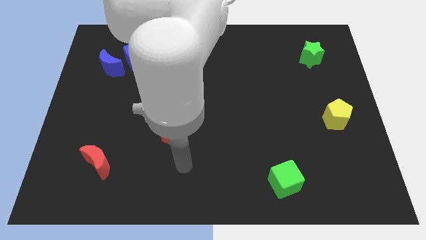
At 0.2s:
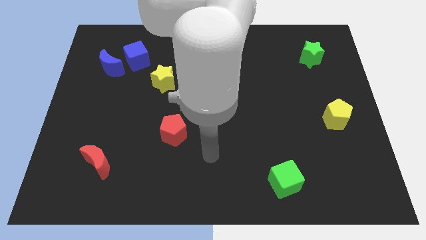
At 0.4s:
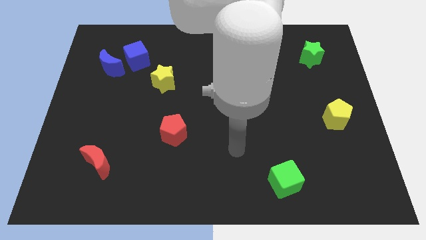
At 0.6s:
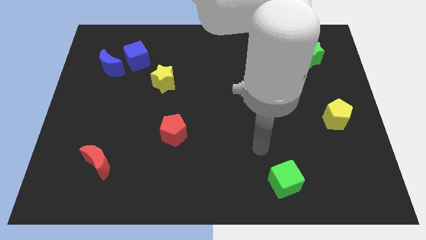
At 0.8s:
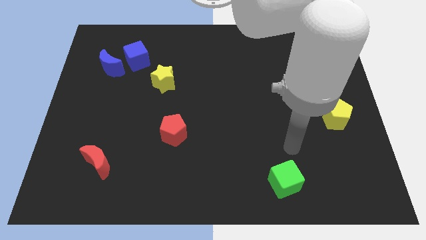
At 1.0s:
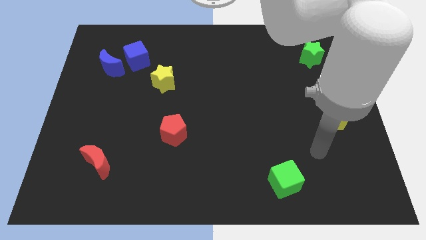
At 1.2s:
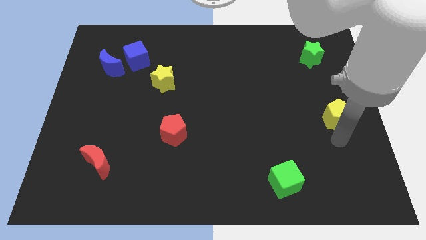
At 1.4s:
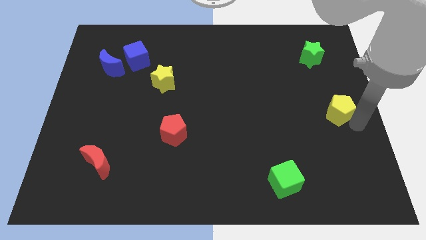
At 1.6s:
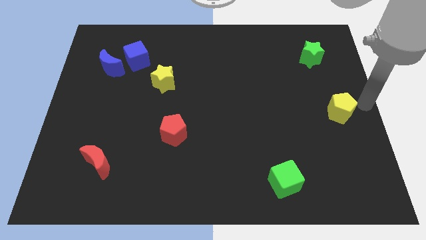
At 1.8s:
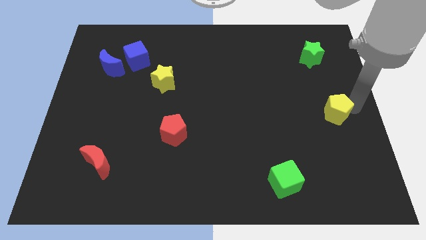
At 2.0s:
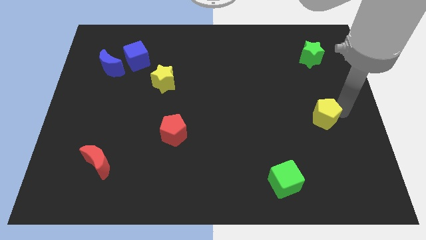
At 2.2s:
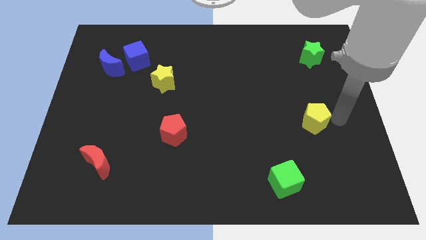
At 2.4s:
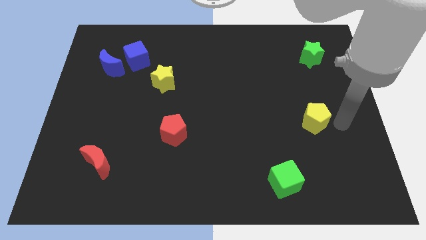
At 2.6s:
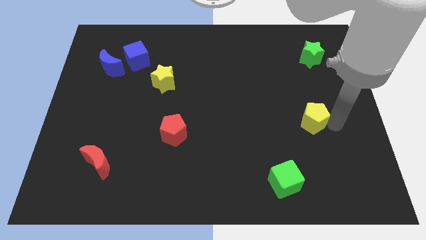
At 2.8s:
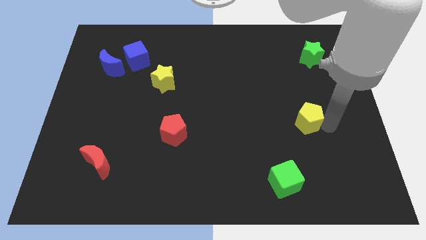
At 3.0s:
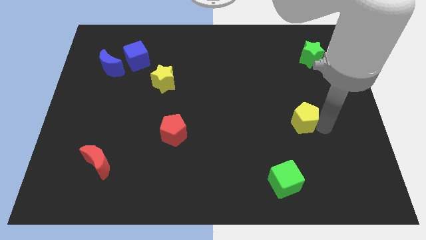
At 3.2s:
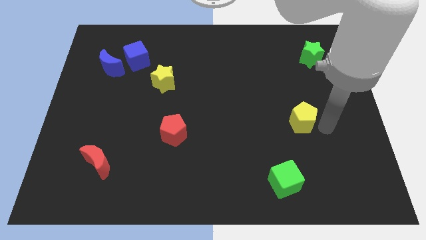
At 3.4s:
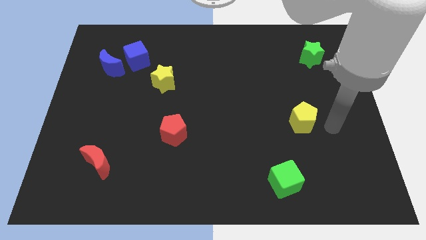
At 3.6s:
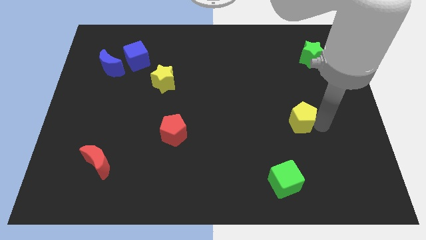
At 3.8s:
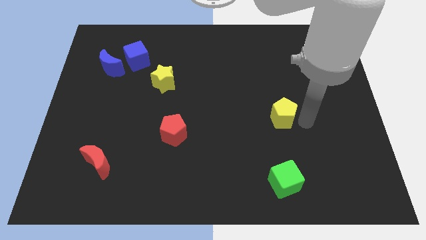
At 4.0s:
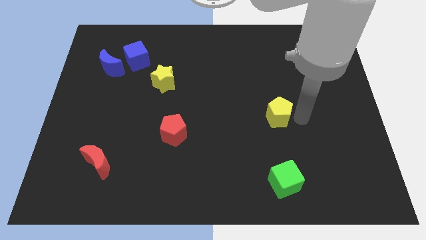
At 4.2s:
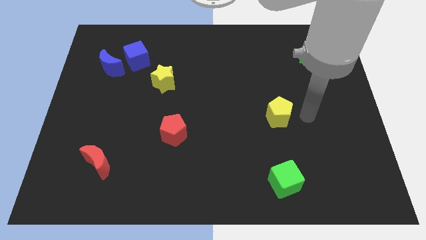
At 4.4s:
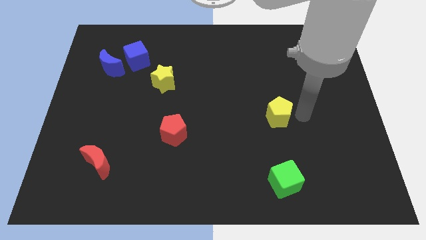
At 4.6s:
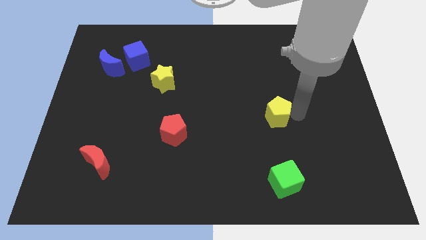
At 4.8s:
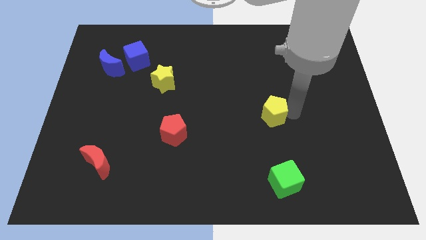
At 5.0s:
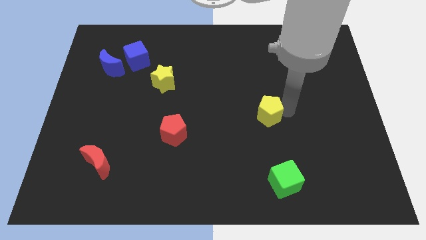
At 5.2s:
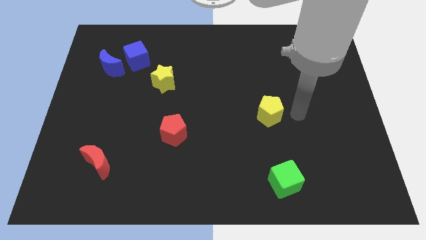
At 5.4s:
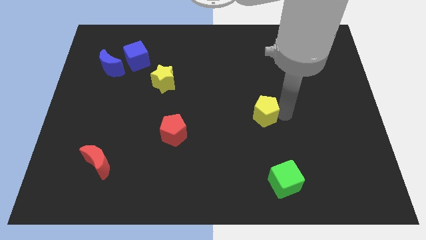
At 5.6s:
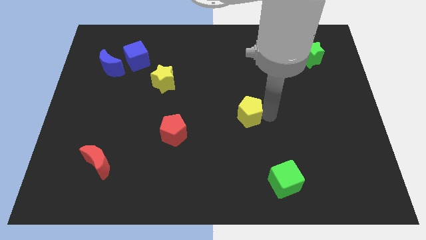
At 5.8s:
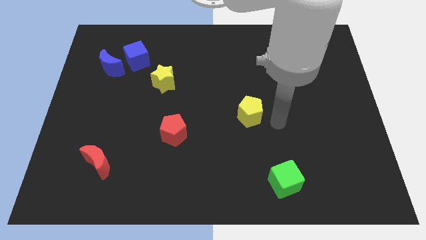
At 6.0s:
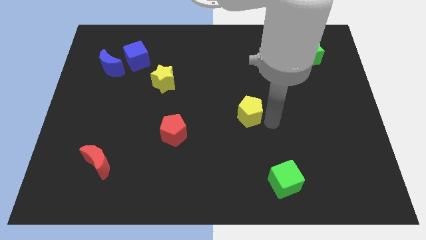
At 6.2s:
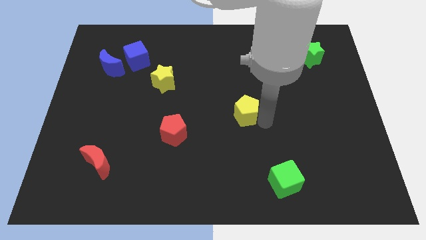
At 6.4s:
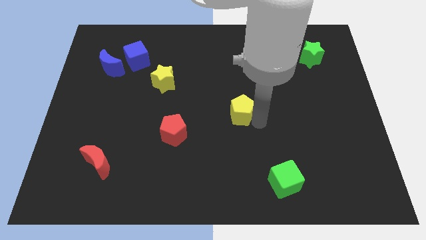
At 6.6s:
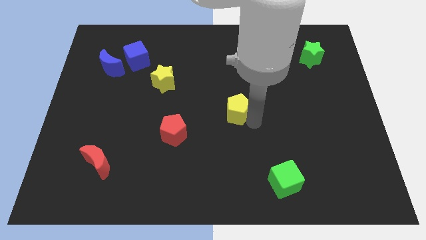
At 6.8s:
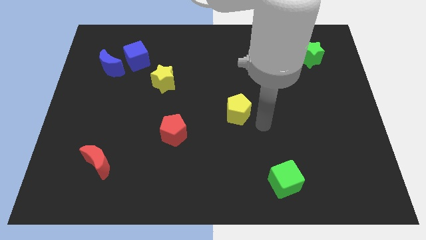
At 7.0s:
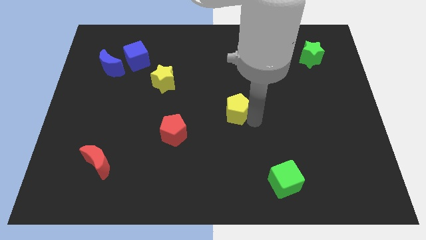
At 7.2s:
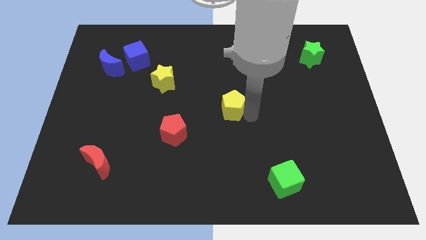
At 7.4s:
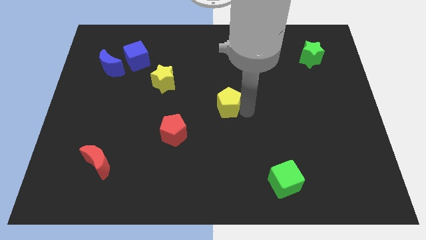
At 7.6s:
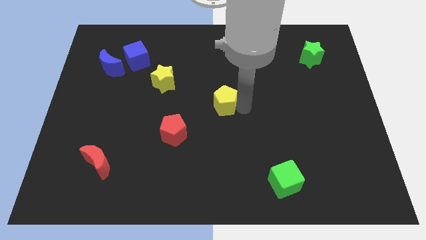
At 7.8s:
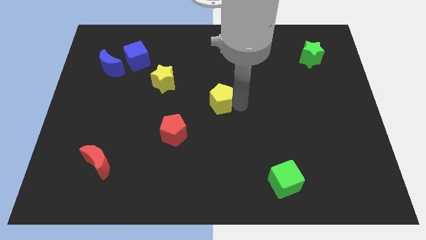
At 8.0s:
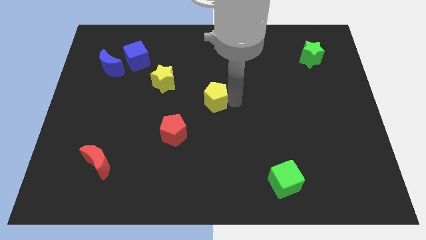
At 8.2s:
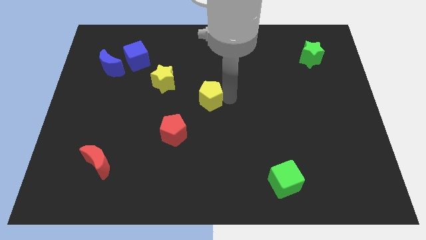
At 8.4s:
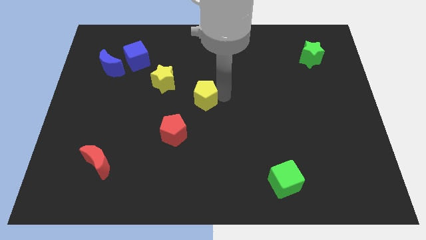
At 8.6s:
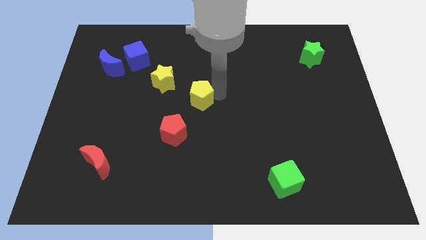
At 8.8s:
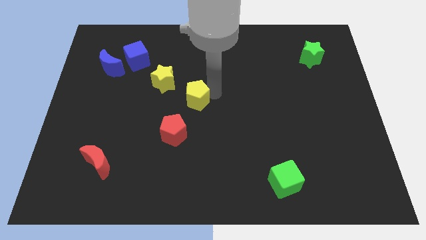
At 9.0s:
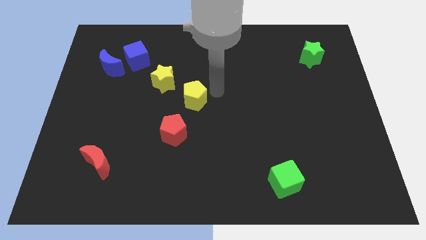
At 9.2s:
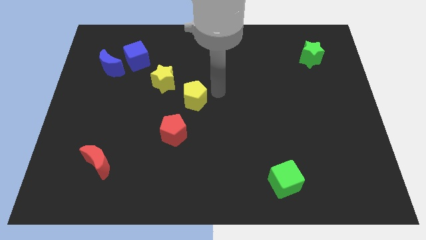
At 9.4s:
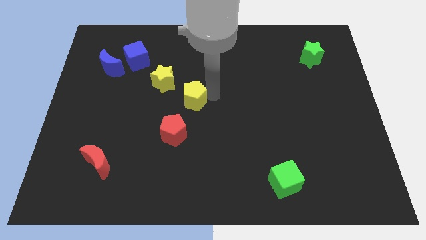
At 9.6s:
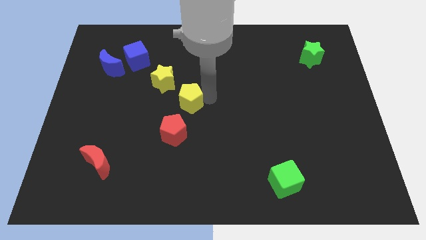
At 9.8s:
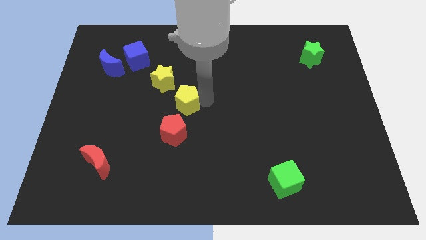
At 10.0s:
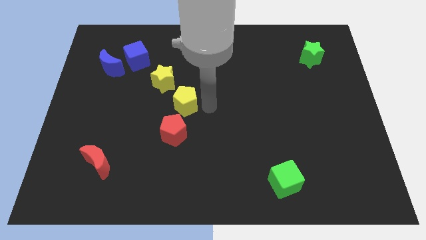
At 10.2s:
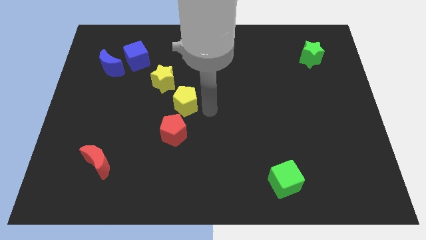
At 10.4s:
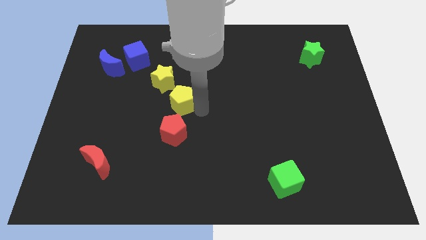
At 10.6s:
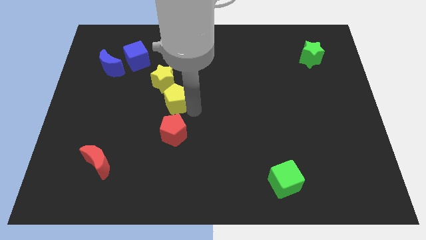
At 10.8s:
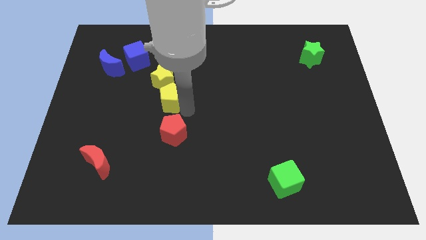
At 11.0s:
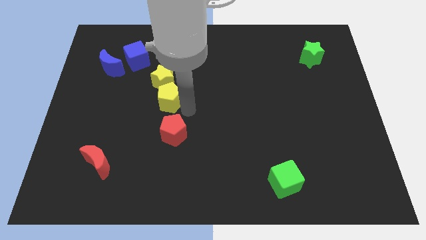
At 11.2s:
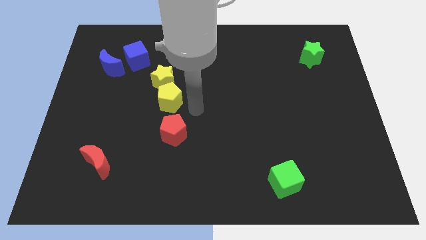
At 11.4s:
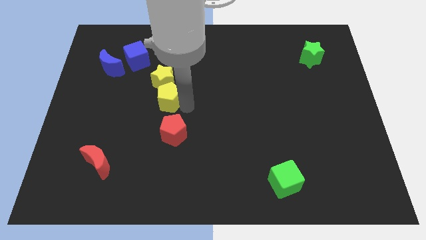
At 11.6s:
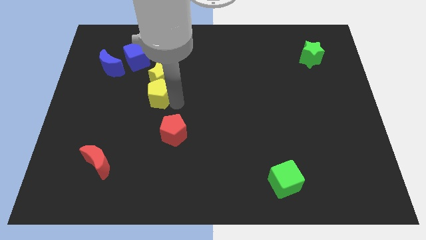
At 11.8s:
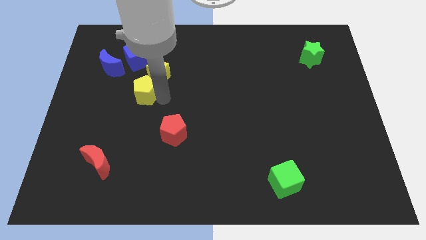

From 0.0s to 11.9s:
put the yellow pentagon to the bottom of the blue cube
